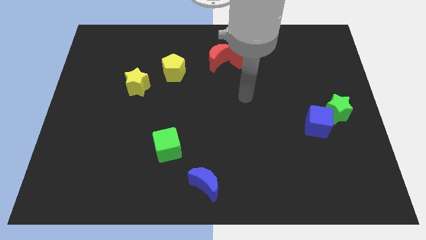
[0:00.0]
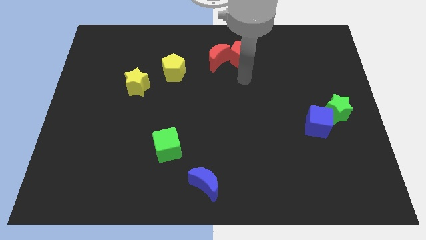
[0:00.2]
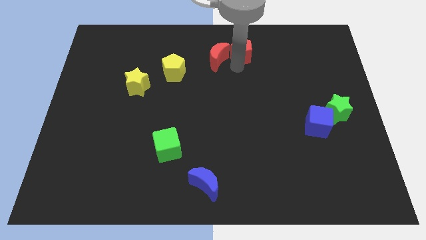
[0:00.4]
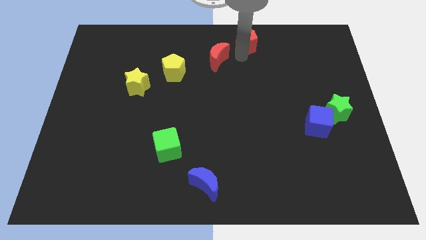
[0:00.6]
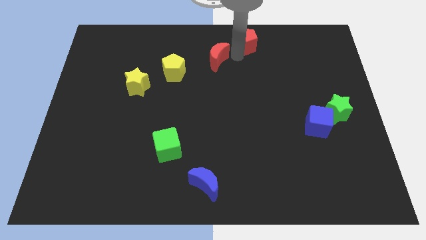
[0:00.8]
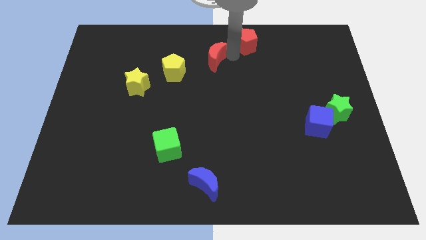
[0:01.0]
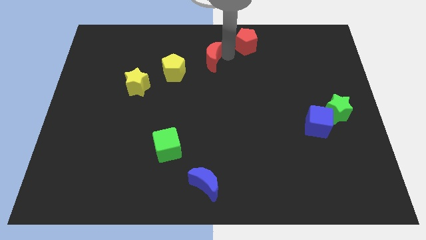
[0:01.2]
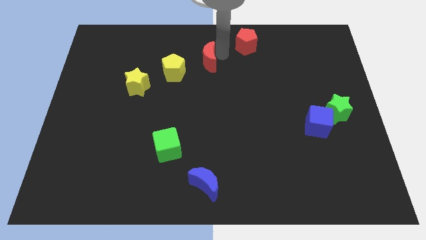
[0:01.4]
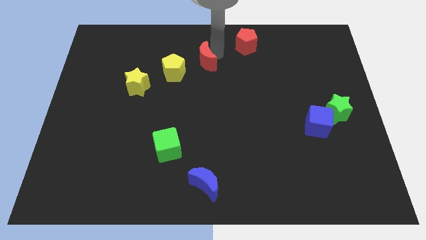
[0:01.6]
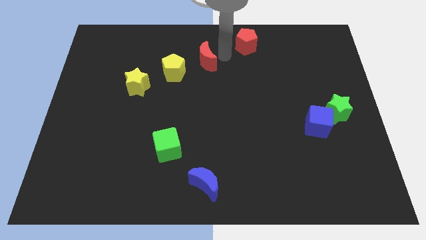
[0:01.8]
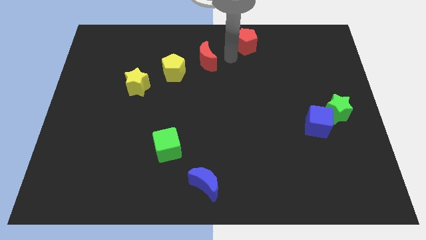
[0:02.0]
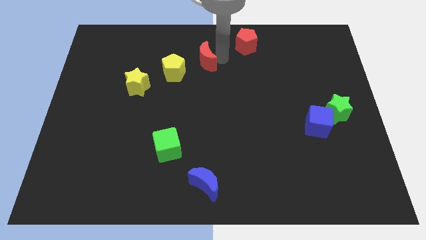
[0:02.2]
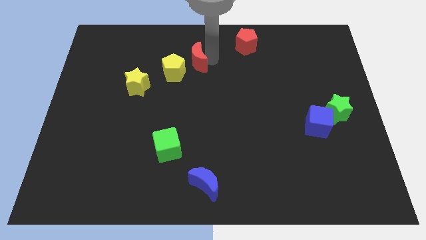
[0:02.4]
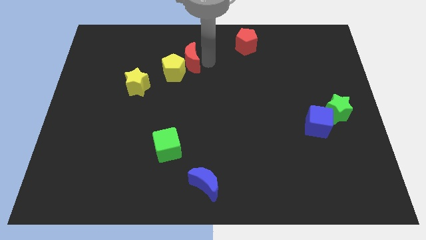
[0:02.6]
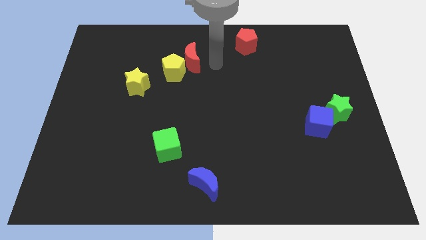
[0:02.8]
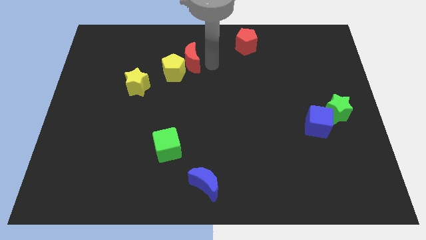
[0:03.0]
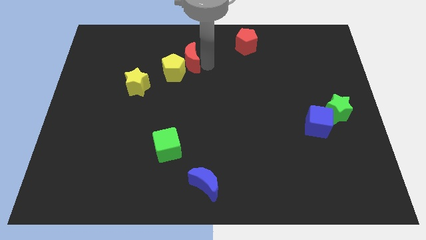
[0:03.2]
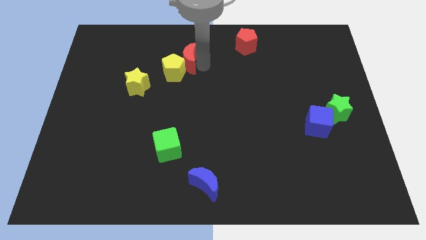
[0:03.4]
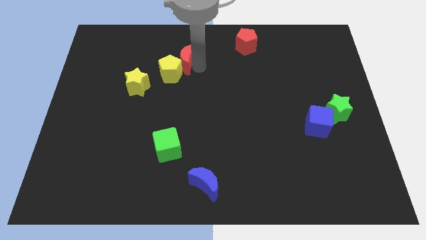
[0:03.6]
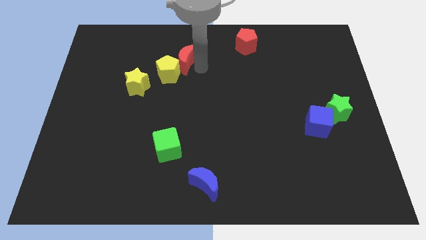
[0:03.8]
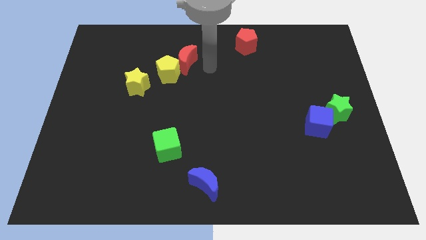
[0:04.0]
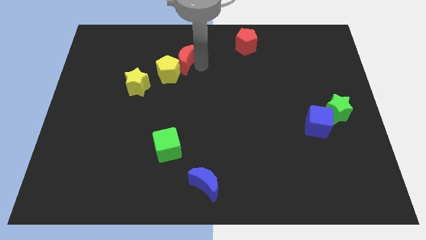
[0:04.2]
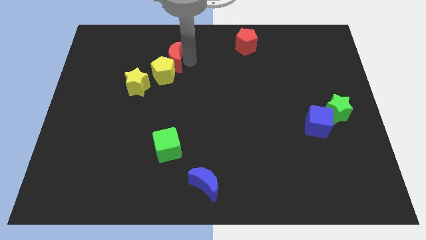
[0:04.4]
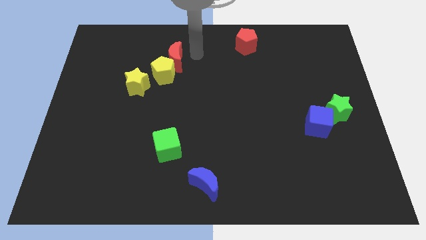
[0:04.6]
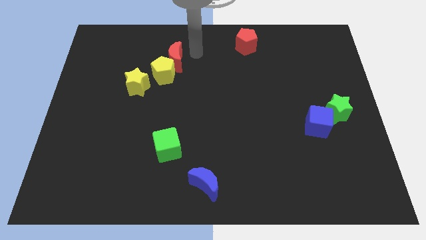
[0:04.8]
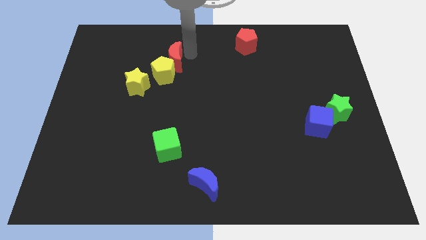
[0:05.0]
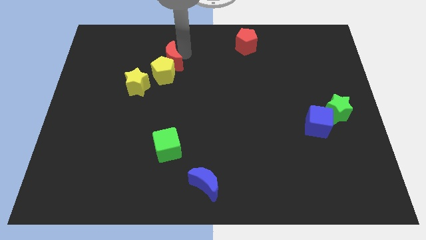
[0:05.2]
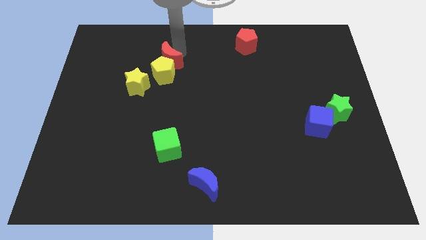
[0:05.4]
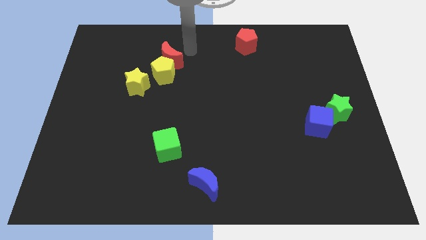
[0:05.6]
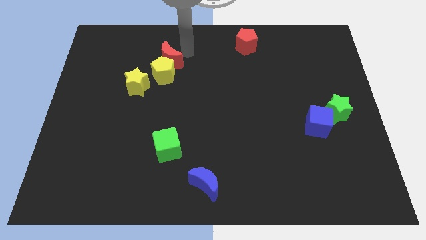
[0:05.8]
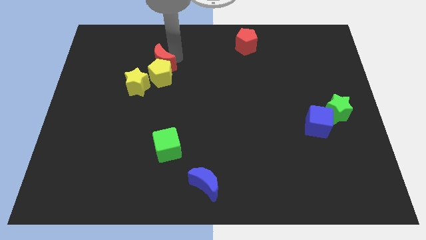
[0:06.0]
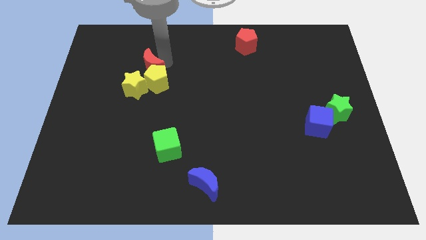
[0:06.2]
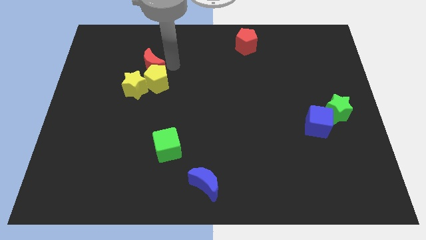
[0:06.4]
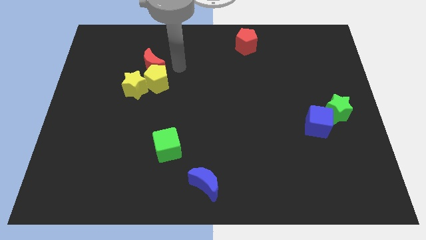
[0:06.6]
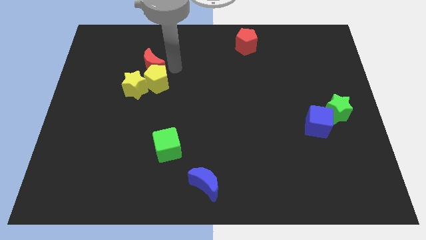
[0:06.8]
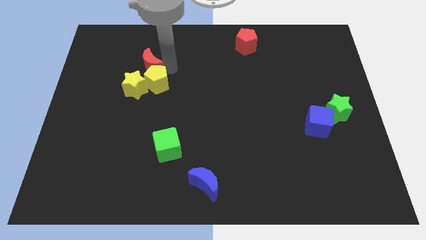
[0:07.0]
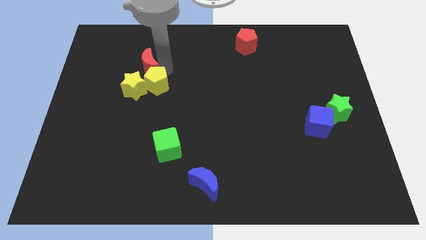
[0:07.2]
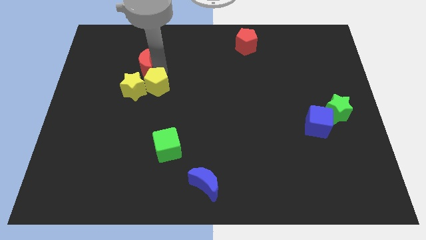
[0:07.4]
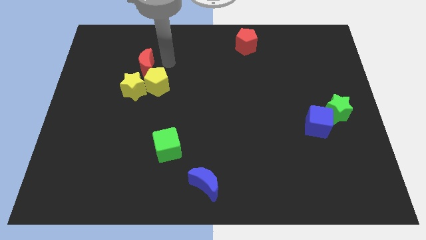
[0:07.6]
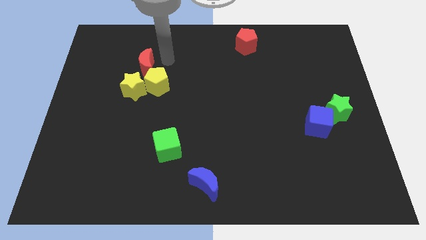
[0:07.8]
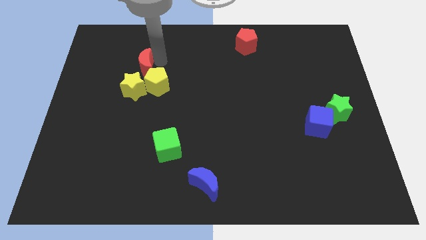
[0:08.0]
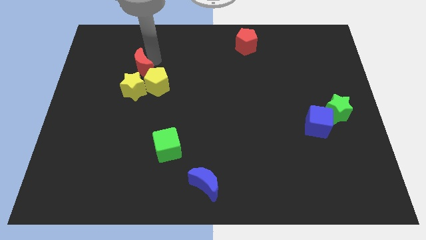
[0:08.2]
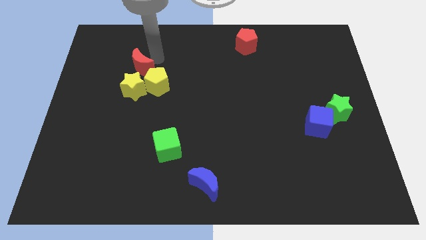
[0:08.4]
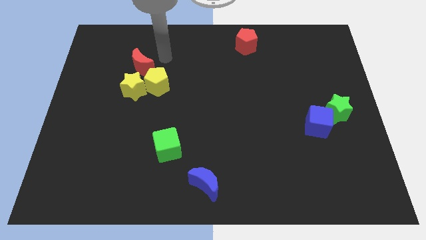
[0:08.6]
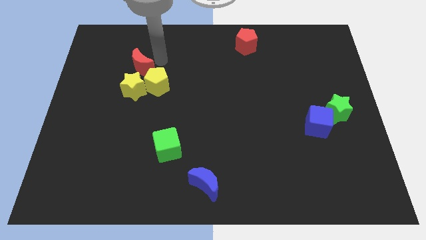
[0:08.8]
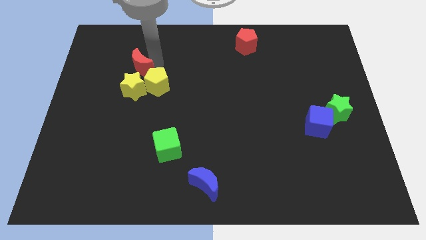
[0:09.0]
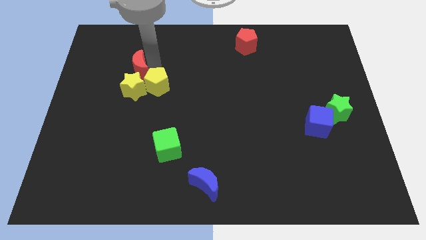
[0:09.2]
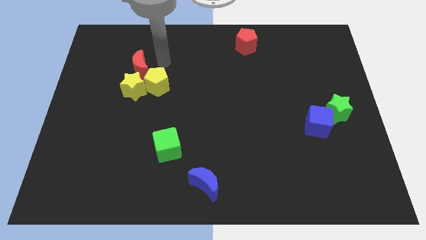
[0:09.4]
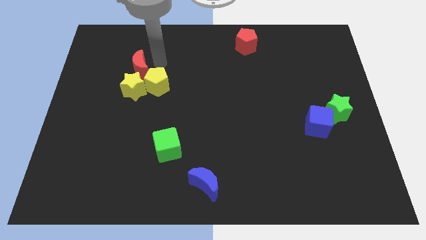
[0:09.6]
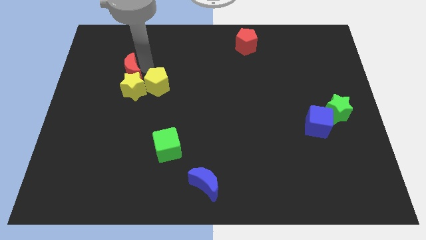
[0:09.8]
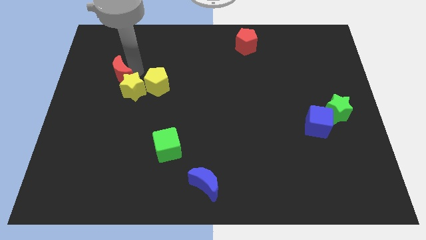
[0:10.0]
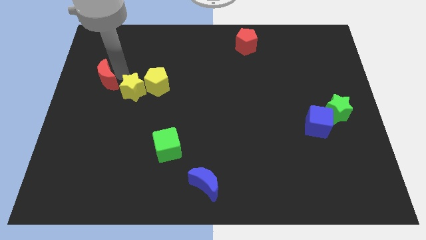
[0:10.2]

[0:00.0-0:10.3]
put the red moon to the center left

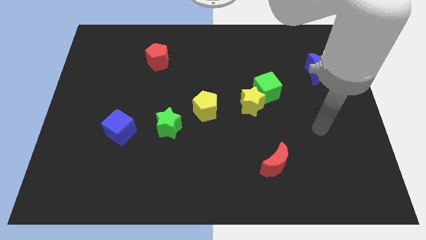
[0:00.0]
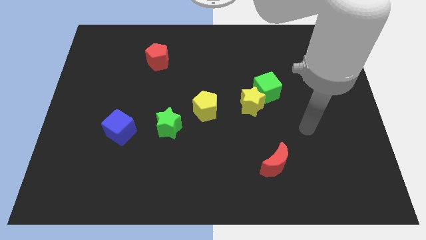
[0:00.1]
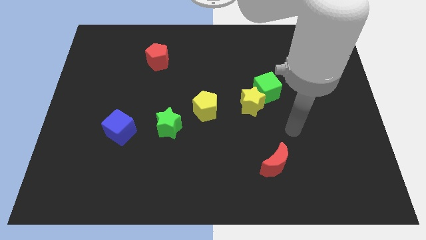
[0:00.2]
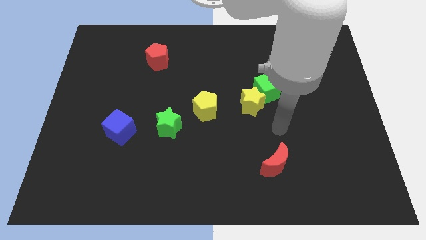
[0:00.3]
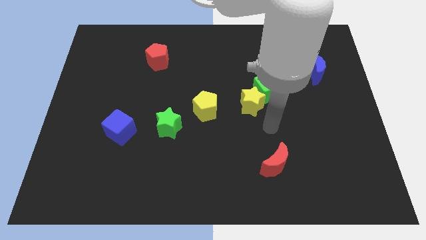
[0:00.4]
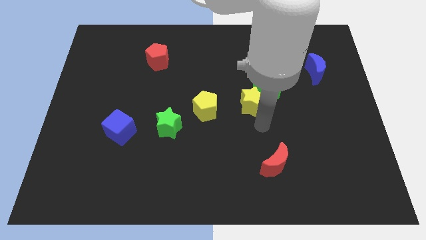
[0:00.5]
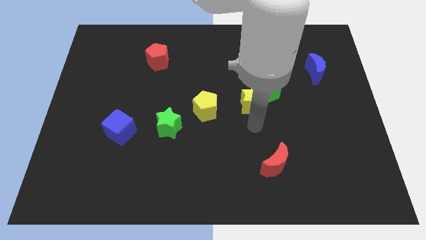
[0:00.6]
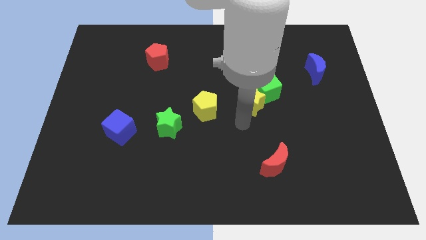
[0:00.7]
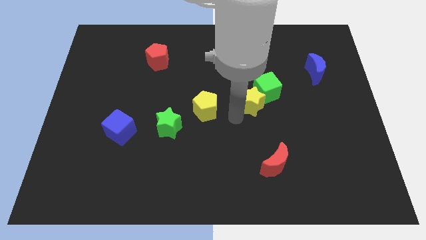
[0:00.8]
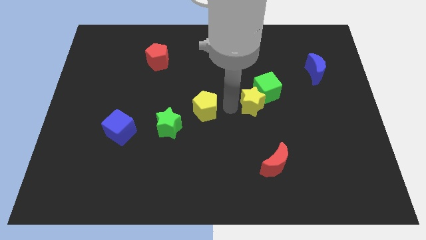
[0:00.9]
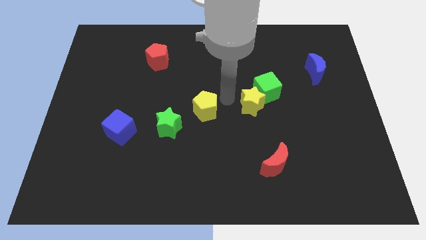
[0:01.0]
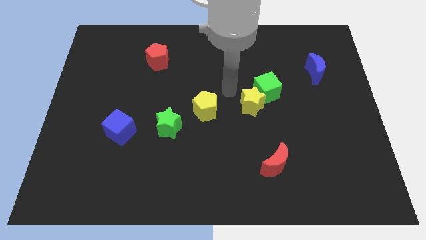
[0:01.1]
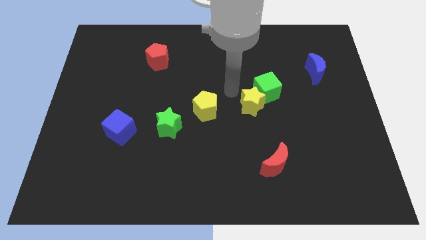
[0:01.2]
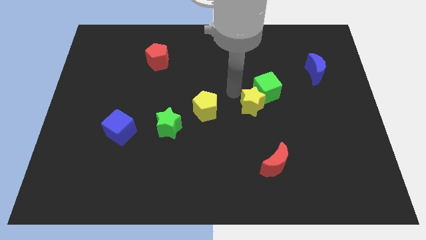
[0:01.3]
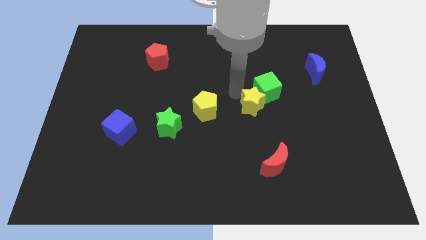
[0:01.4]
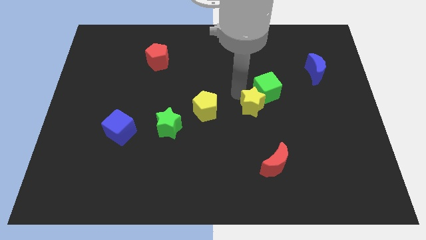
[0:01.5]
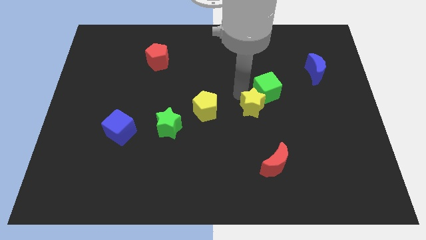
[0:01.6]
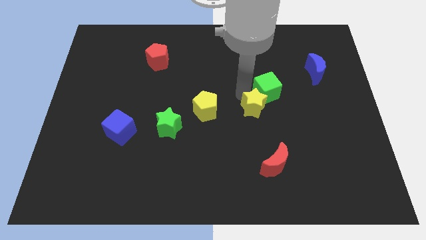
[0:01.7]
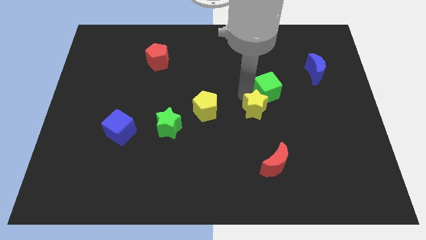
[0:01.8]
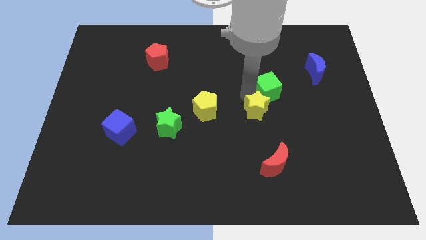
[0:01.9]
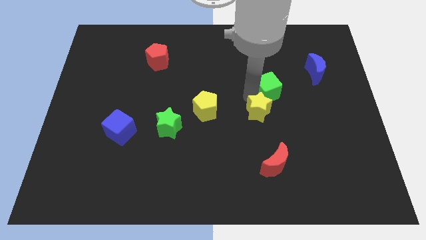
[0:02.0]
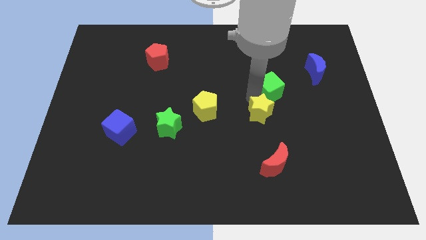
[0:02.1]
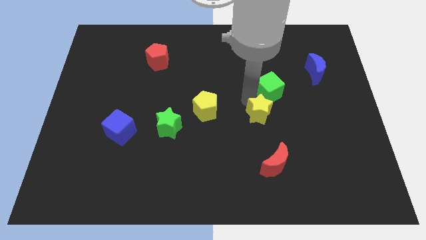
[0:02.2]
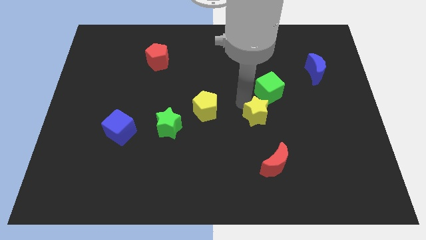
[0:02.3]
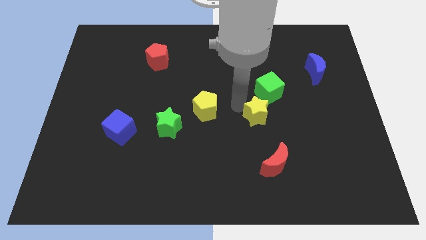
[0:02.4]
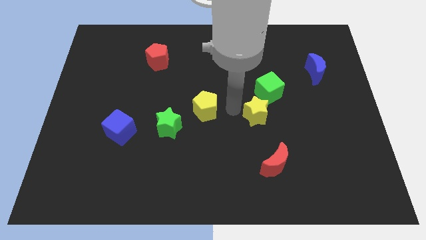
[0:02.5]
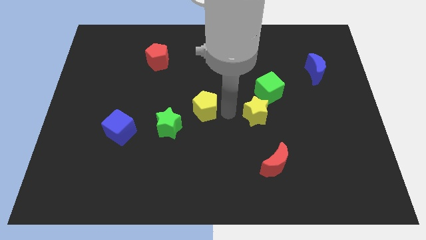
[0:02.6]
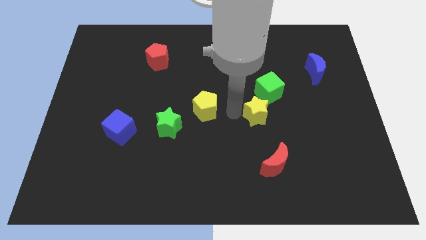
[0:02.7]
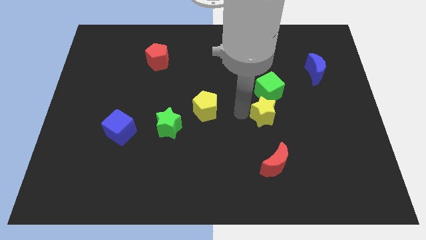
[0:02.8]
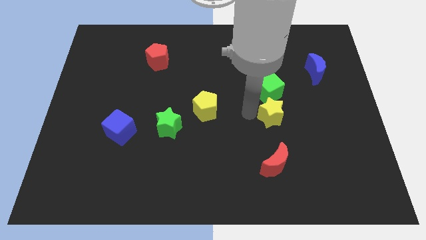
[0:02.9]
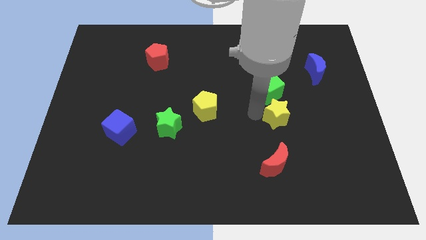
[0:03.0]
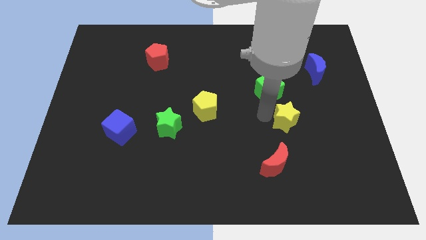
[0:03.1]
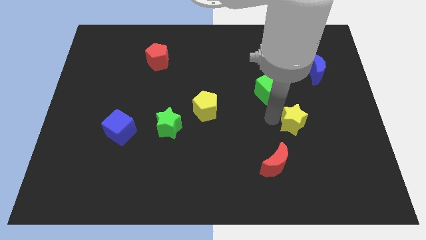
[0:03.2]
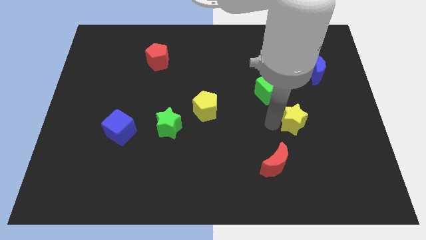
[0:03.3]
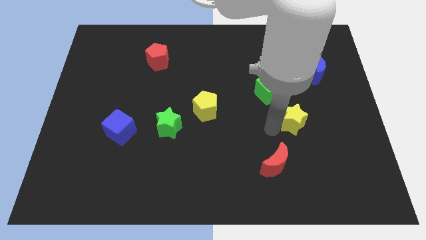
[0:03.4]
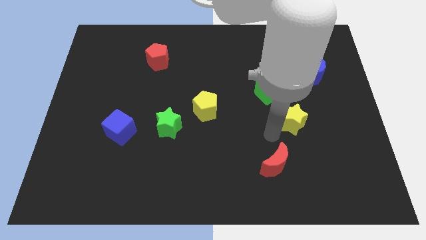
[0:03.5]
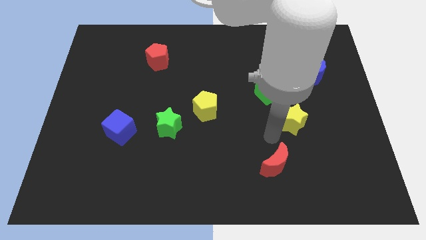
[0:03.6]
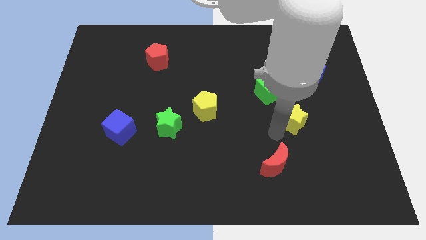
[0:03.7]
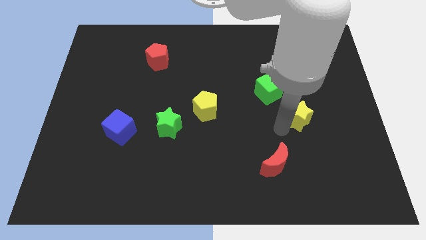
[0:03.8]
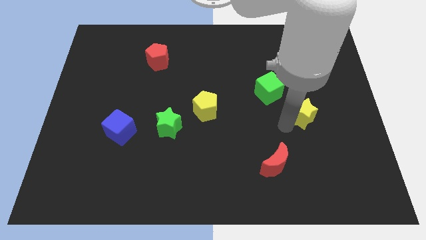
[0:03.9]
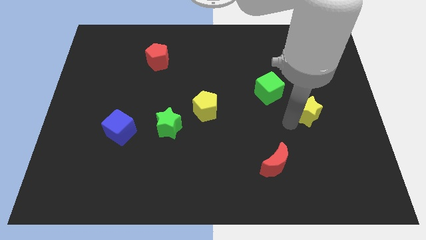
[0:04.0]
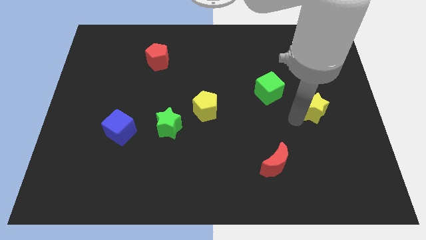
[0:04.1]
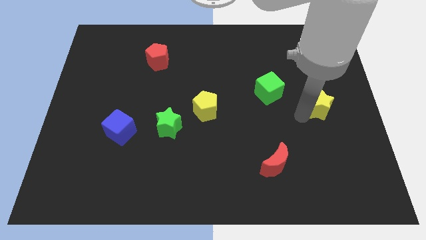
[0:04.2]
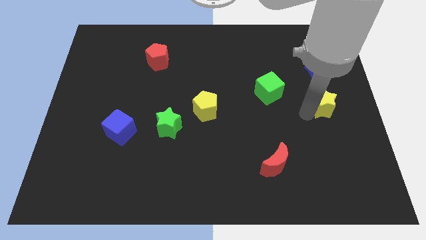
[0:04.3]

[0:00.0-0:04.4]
move the yellow star to the right side
